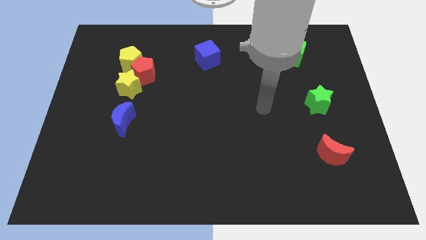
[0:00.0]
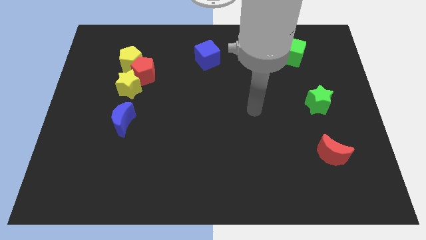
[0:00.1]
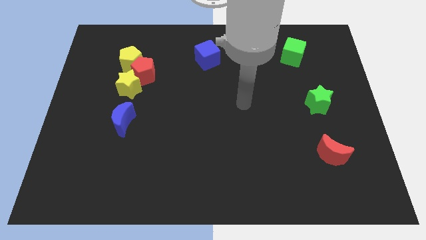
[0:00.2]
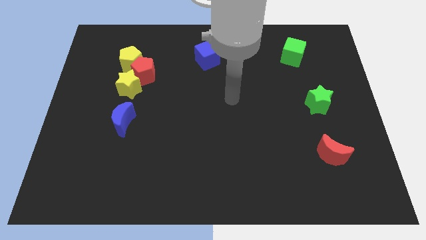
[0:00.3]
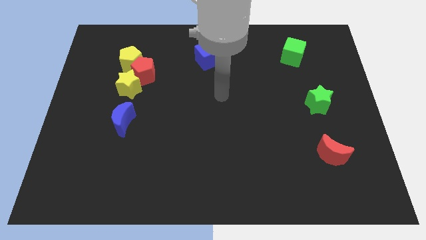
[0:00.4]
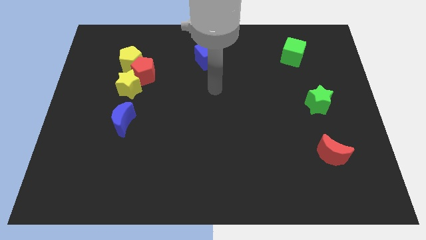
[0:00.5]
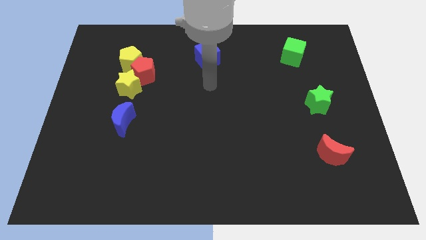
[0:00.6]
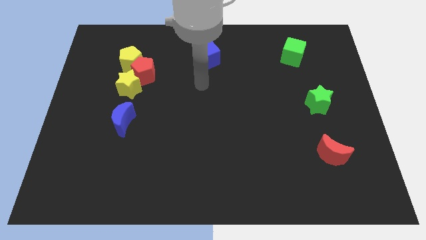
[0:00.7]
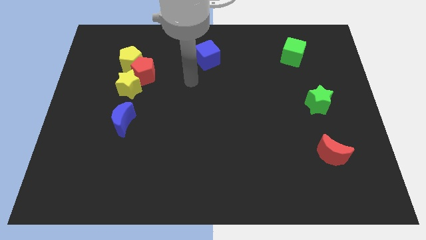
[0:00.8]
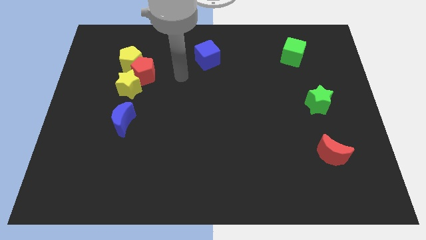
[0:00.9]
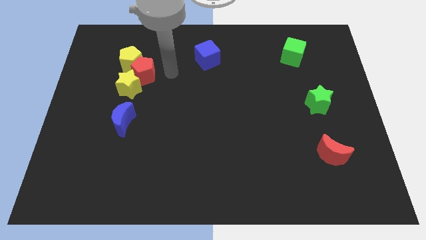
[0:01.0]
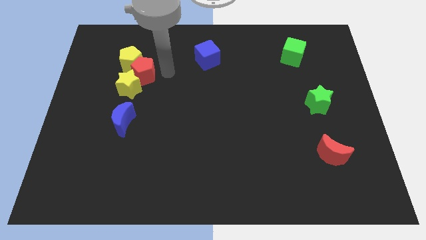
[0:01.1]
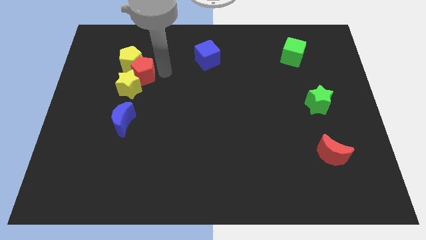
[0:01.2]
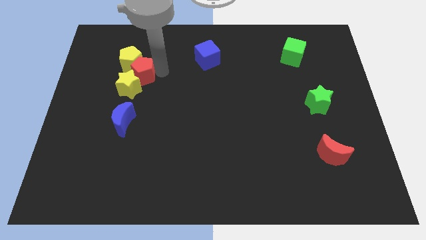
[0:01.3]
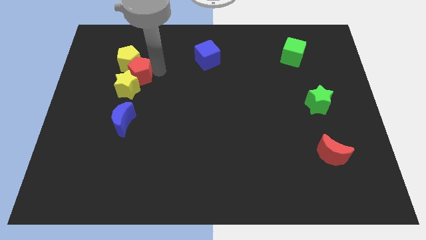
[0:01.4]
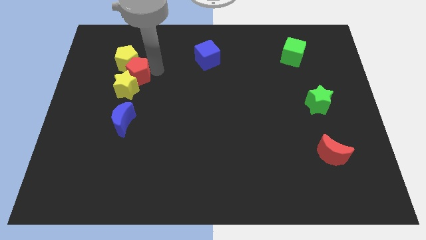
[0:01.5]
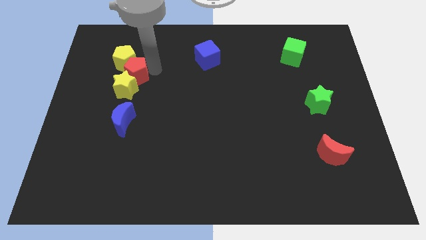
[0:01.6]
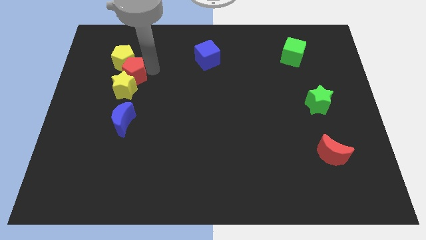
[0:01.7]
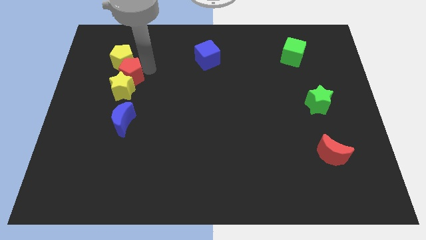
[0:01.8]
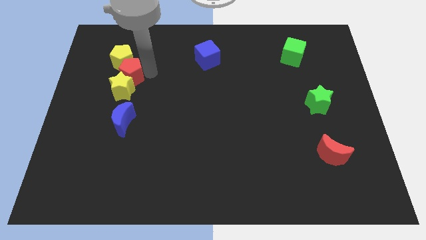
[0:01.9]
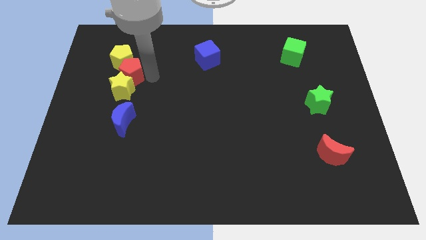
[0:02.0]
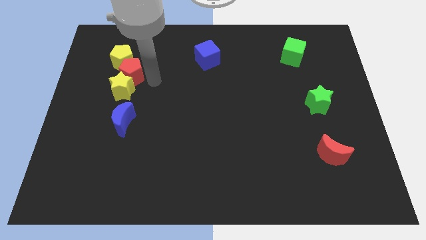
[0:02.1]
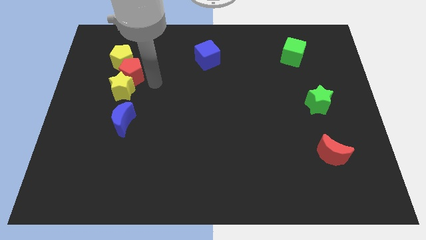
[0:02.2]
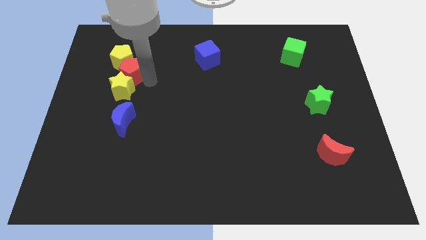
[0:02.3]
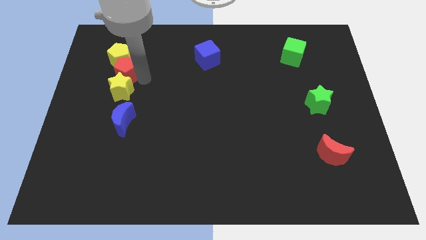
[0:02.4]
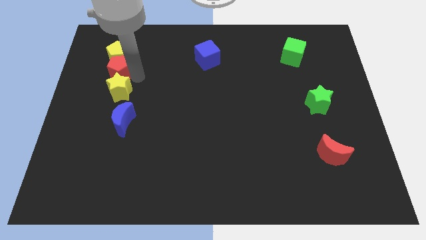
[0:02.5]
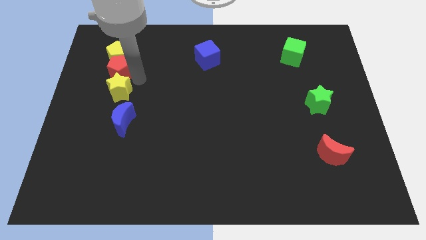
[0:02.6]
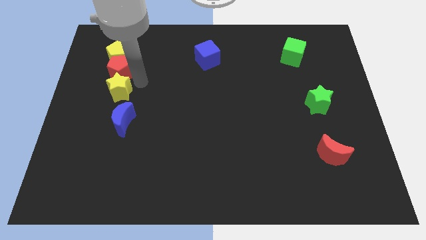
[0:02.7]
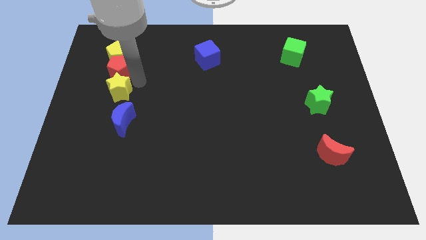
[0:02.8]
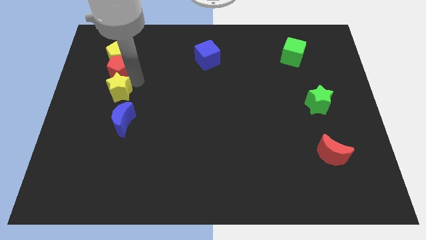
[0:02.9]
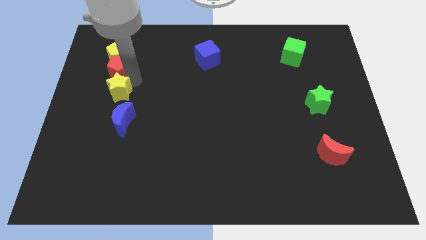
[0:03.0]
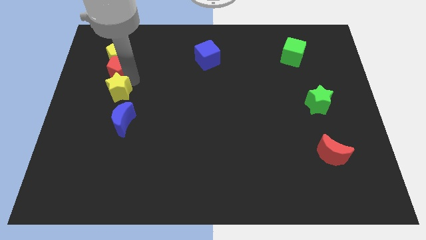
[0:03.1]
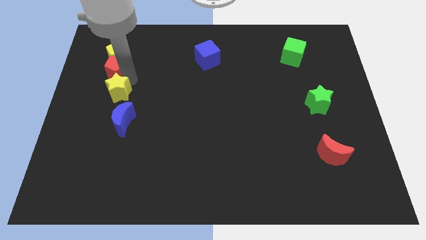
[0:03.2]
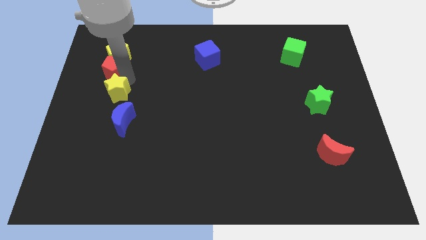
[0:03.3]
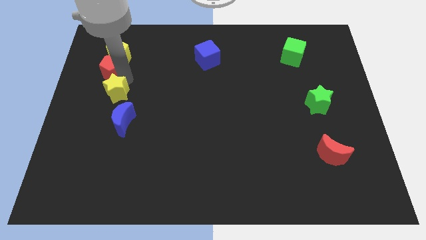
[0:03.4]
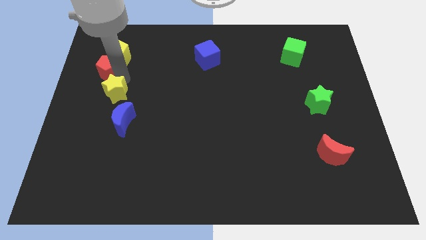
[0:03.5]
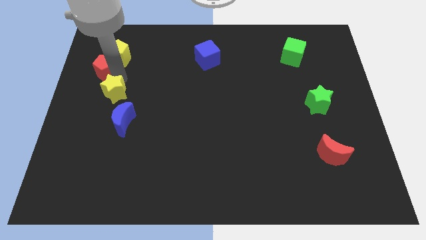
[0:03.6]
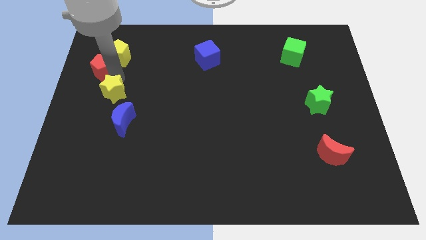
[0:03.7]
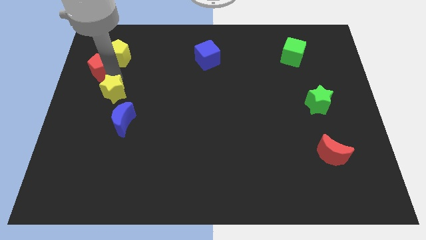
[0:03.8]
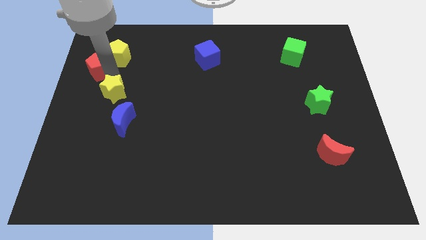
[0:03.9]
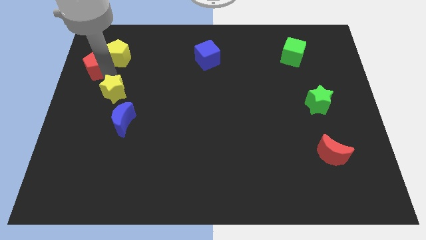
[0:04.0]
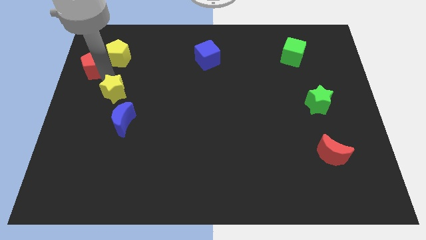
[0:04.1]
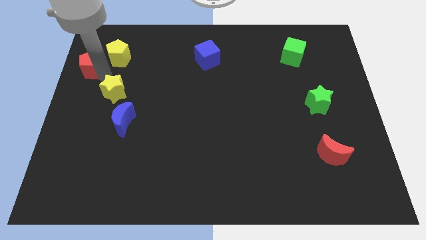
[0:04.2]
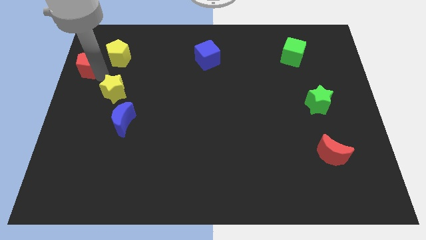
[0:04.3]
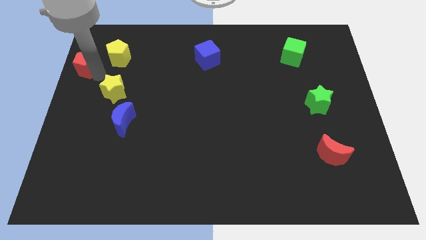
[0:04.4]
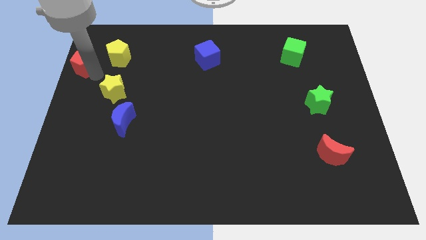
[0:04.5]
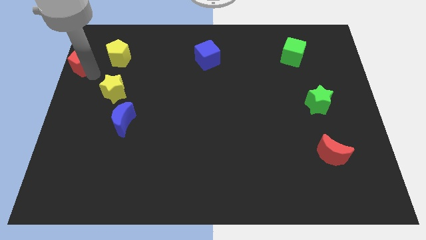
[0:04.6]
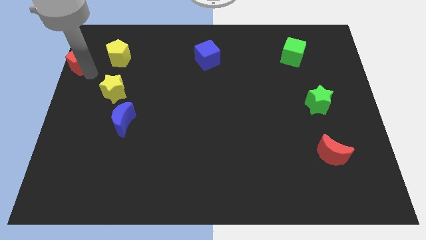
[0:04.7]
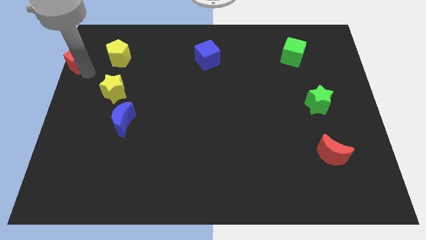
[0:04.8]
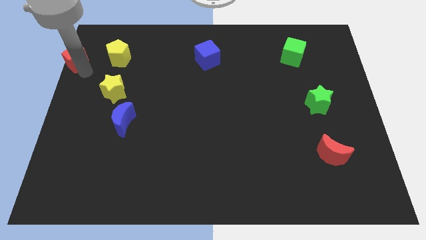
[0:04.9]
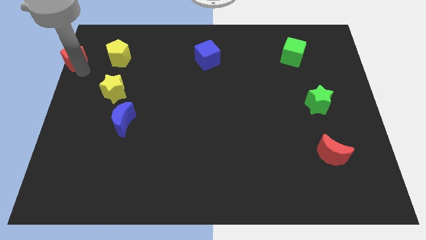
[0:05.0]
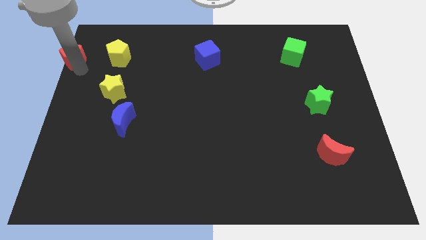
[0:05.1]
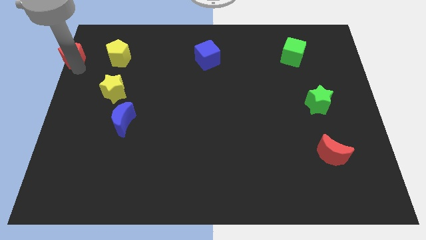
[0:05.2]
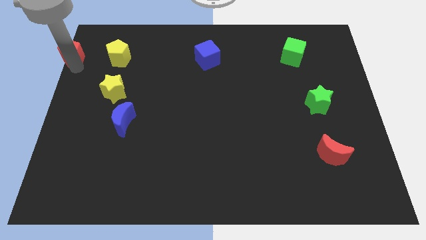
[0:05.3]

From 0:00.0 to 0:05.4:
put the red pentagon to the top left

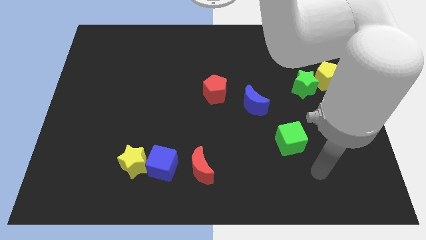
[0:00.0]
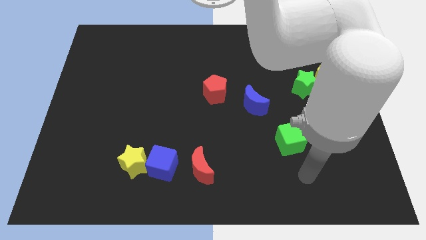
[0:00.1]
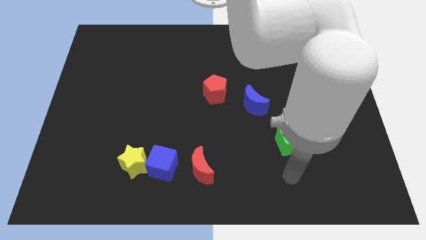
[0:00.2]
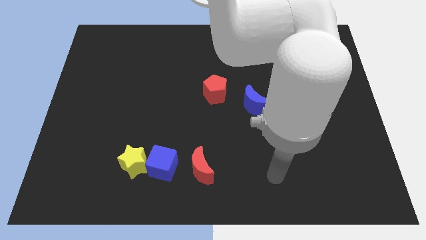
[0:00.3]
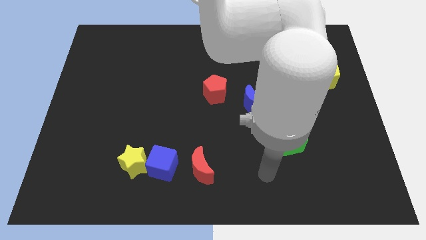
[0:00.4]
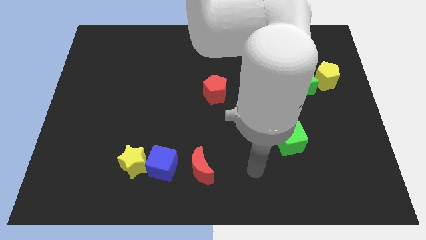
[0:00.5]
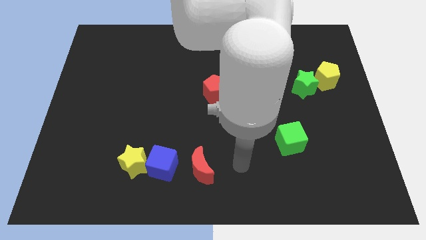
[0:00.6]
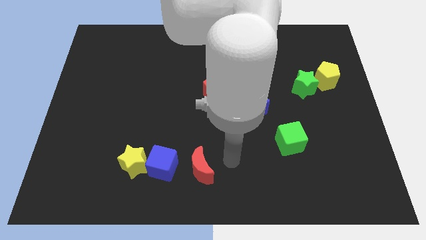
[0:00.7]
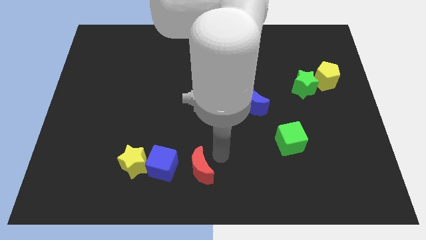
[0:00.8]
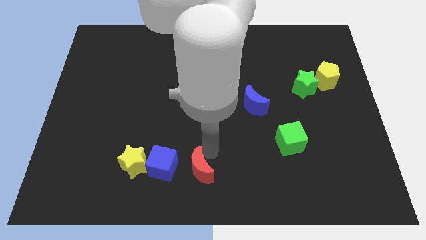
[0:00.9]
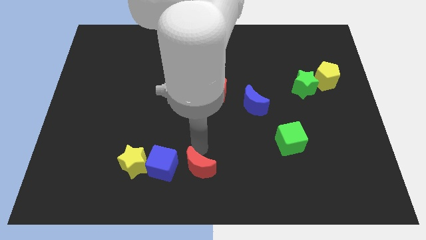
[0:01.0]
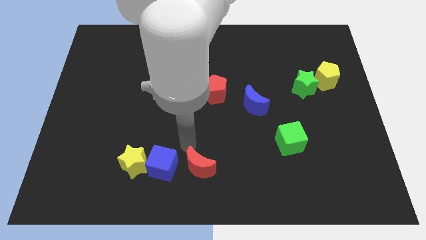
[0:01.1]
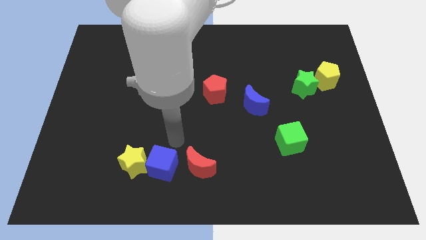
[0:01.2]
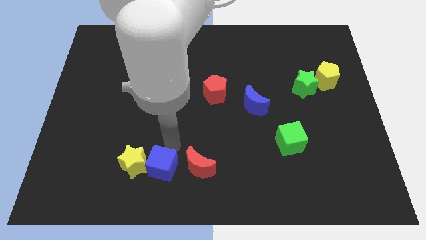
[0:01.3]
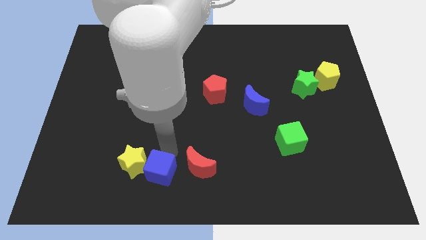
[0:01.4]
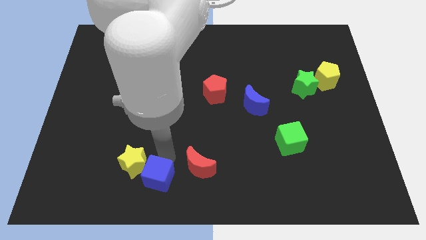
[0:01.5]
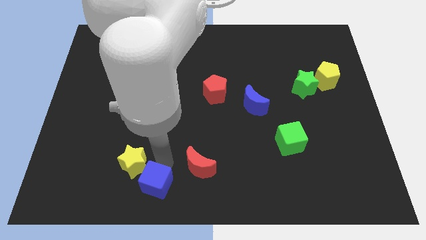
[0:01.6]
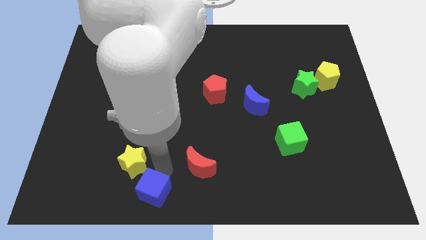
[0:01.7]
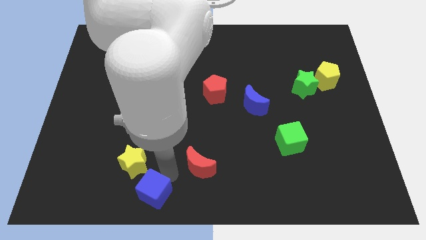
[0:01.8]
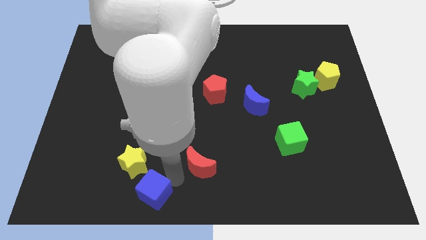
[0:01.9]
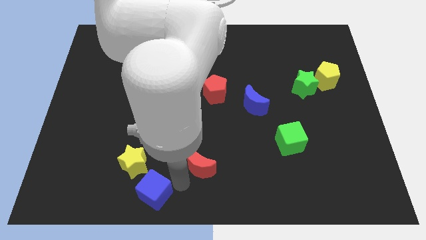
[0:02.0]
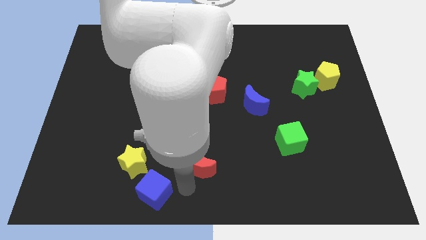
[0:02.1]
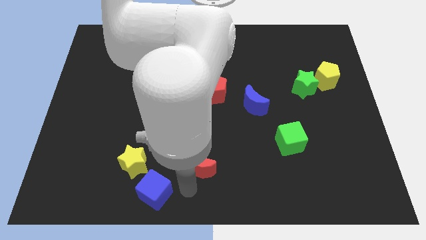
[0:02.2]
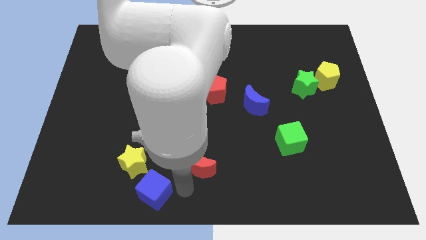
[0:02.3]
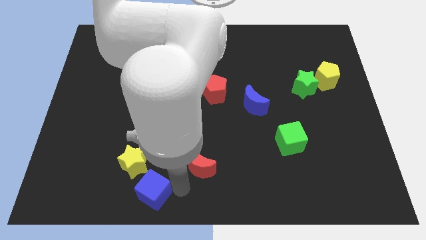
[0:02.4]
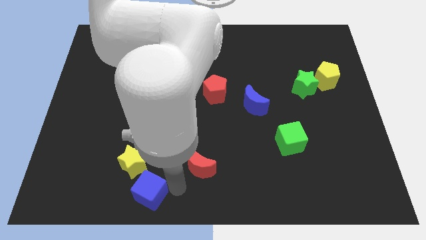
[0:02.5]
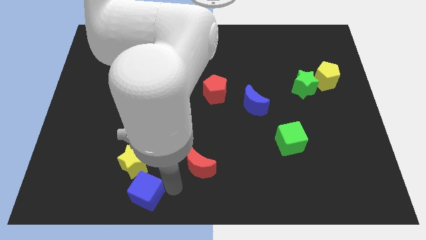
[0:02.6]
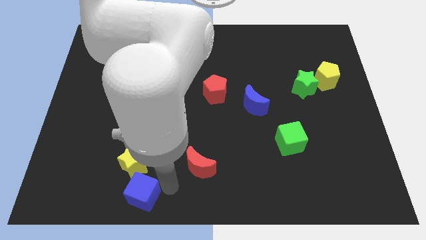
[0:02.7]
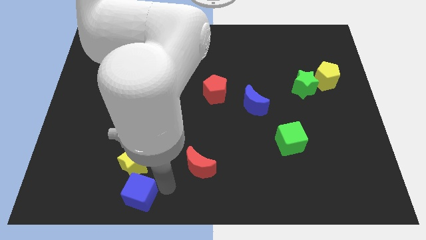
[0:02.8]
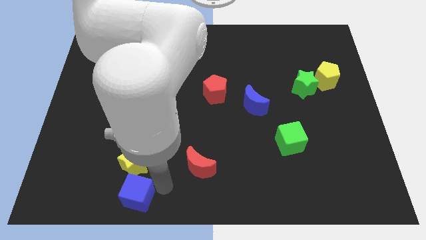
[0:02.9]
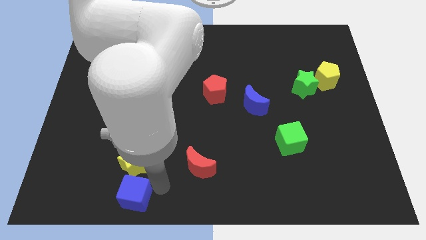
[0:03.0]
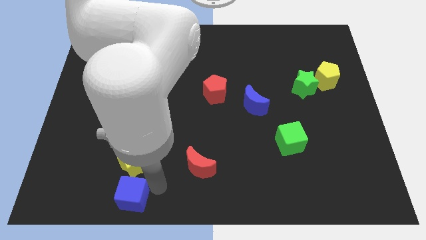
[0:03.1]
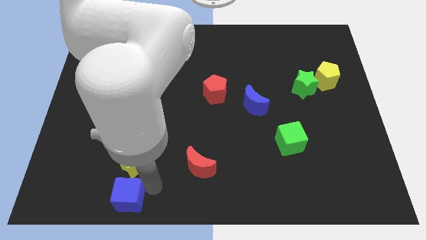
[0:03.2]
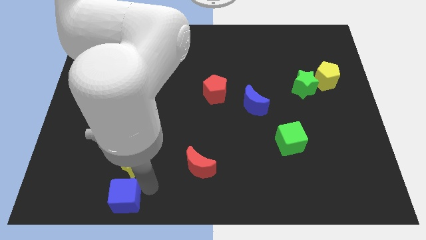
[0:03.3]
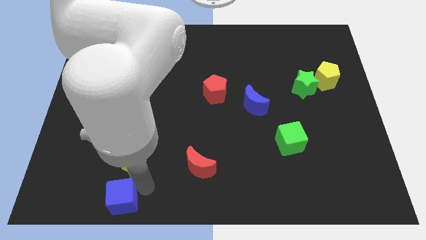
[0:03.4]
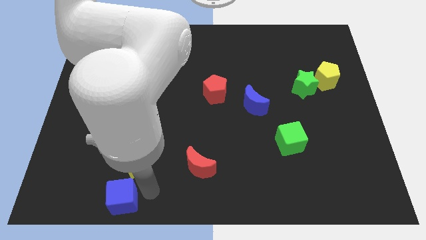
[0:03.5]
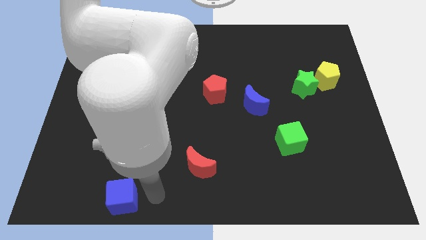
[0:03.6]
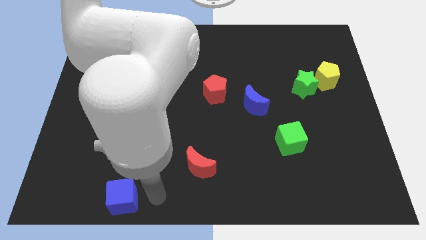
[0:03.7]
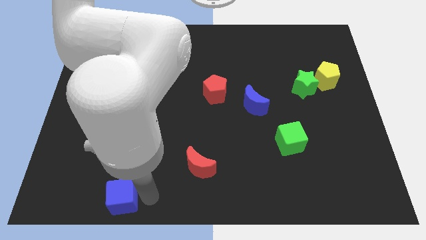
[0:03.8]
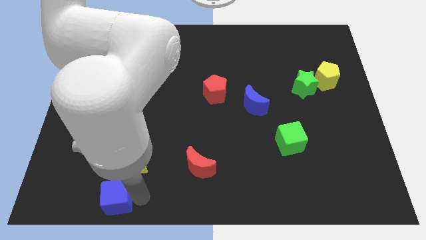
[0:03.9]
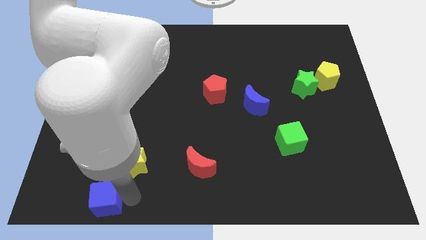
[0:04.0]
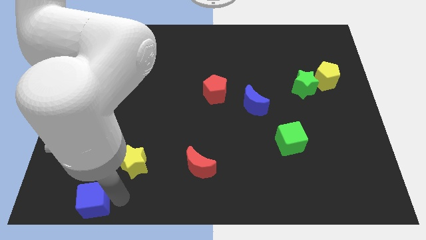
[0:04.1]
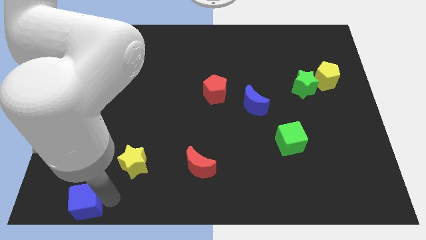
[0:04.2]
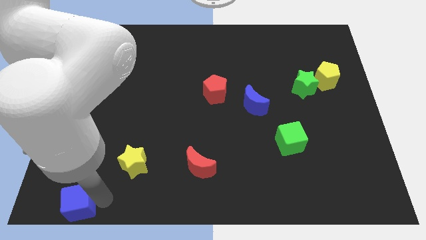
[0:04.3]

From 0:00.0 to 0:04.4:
push the blue cube to the bottom left of the board
